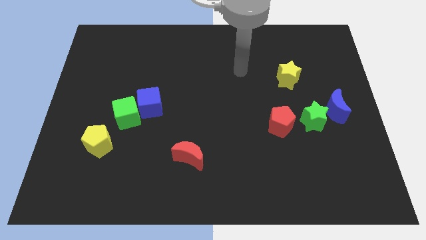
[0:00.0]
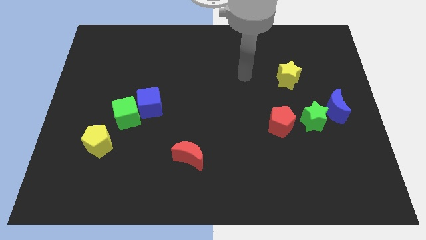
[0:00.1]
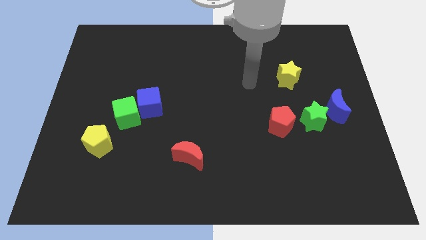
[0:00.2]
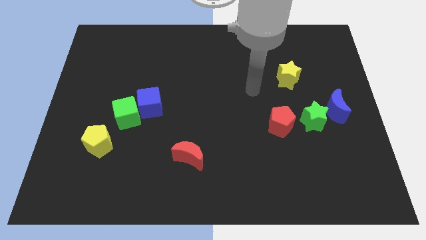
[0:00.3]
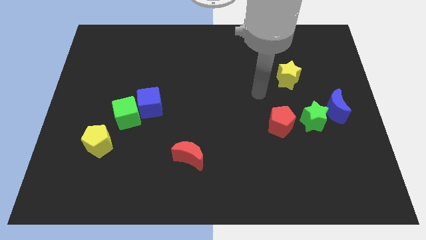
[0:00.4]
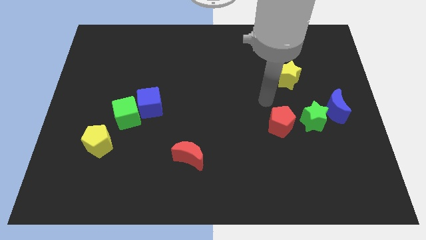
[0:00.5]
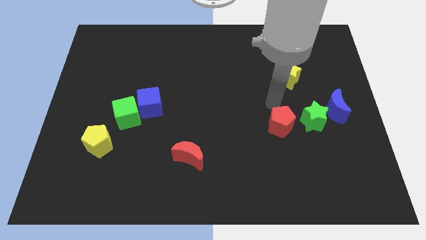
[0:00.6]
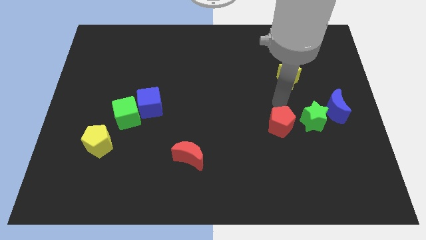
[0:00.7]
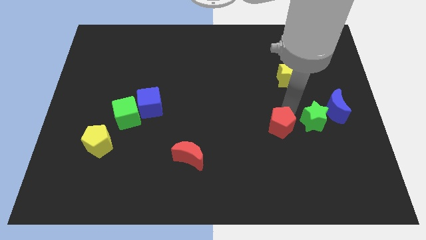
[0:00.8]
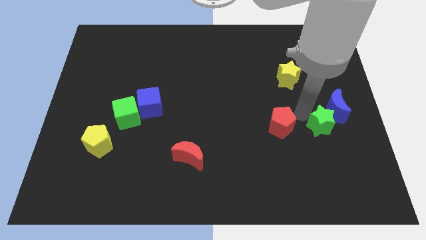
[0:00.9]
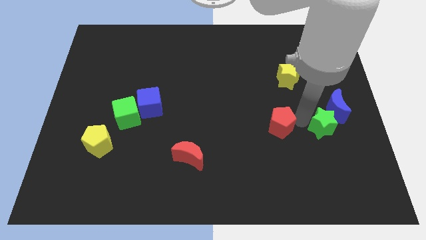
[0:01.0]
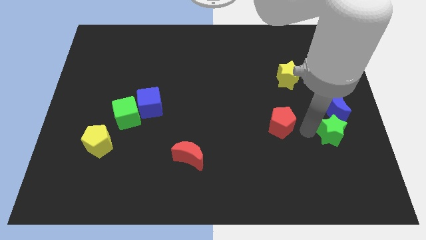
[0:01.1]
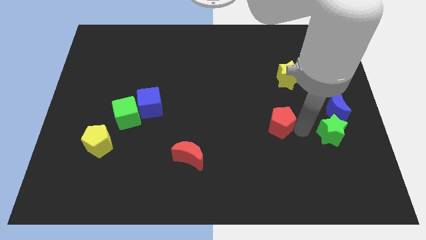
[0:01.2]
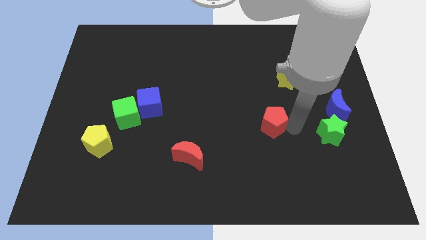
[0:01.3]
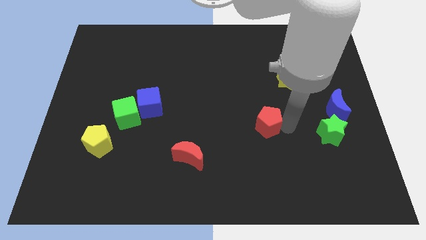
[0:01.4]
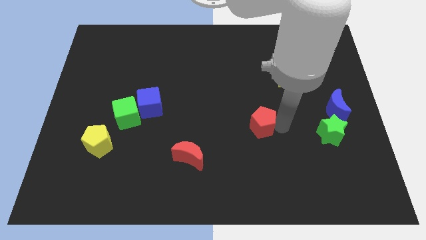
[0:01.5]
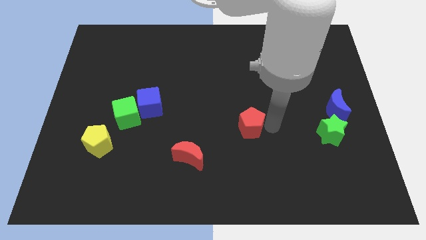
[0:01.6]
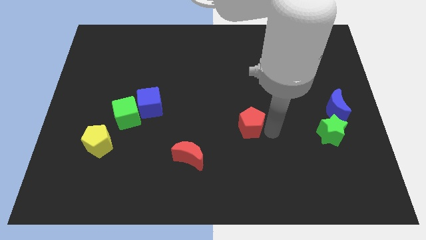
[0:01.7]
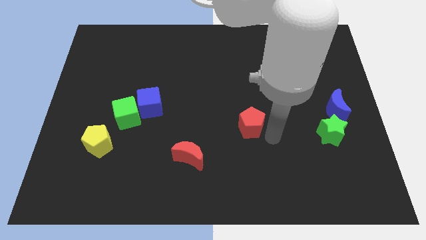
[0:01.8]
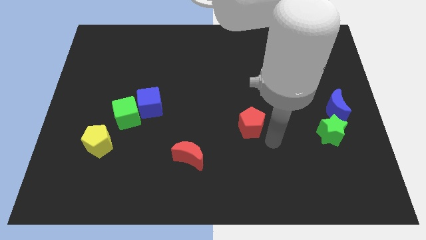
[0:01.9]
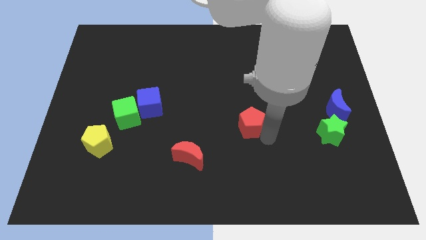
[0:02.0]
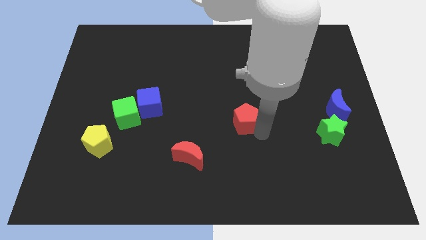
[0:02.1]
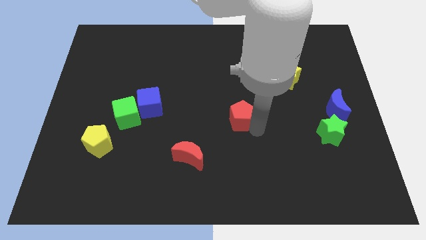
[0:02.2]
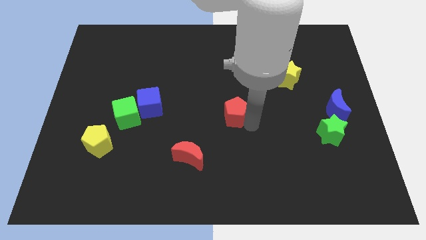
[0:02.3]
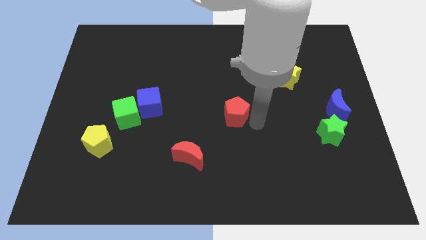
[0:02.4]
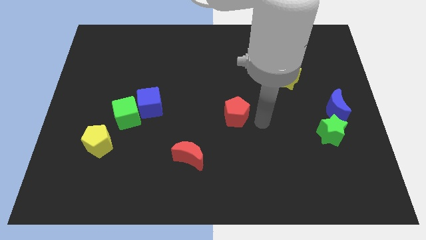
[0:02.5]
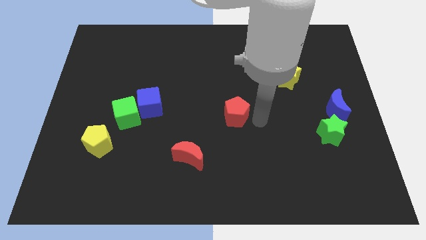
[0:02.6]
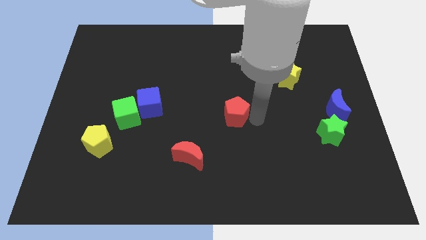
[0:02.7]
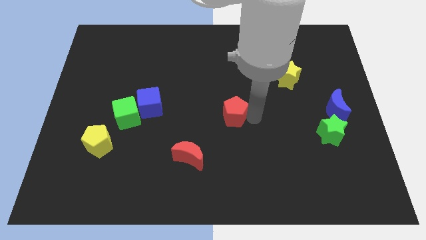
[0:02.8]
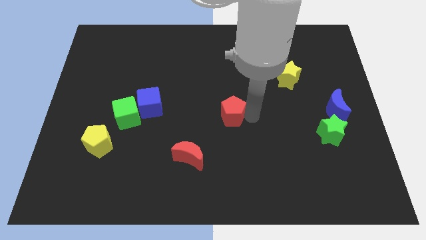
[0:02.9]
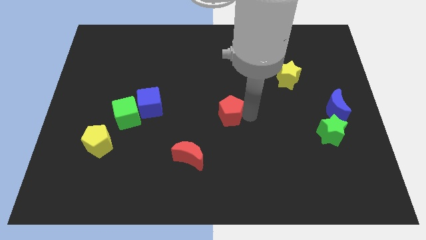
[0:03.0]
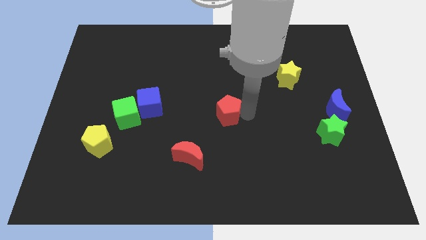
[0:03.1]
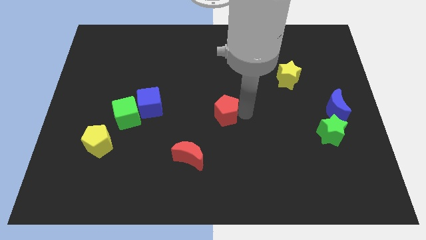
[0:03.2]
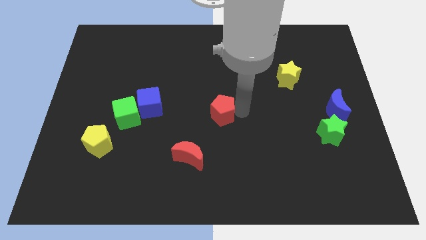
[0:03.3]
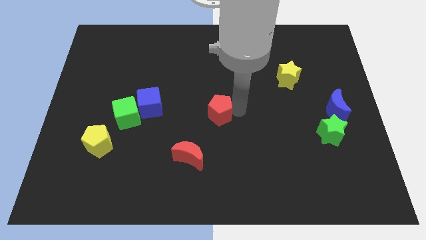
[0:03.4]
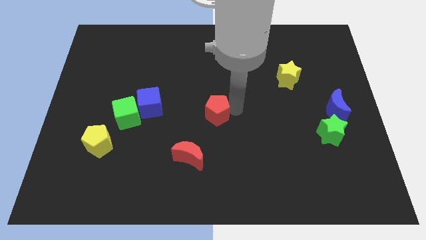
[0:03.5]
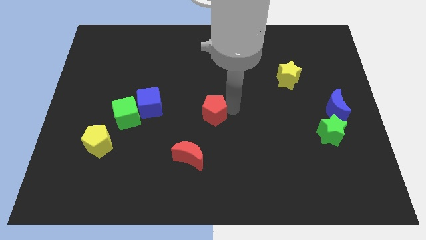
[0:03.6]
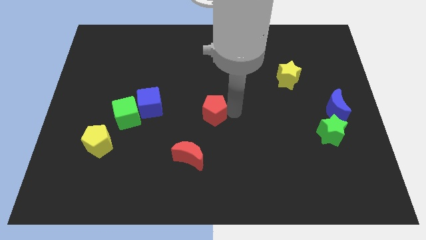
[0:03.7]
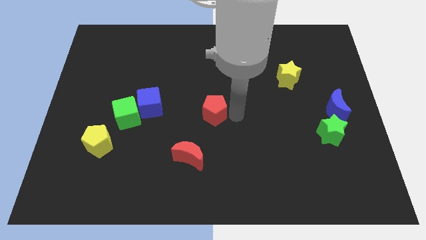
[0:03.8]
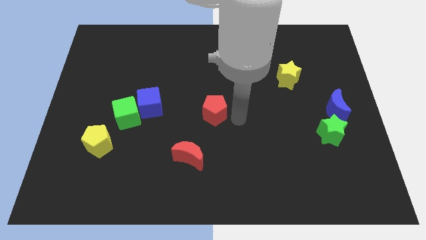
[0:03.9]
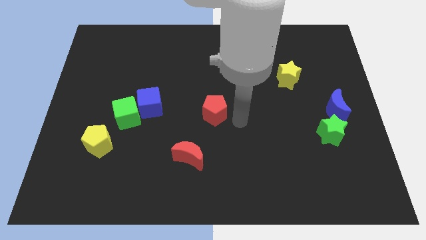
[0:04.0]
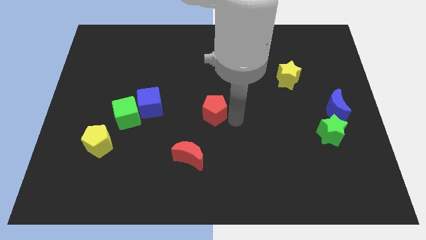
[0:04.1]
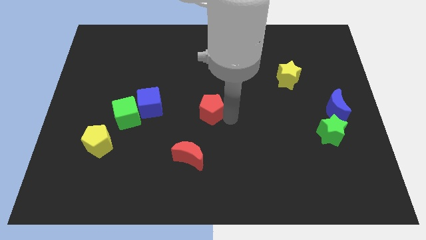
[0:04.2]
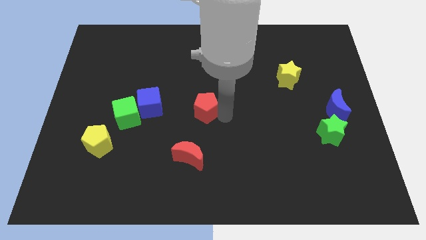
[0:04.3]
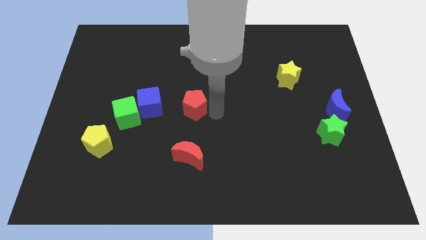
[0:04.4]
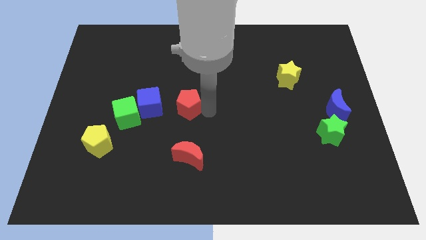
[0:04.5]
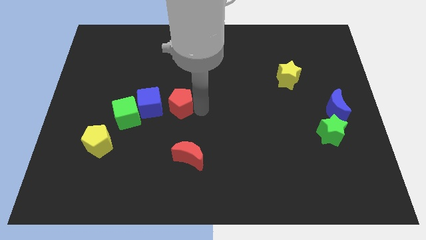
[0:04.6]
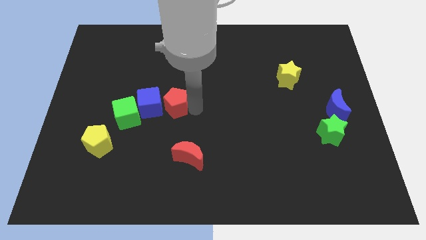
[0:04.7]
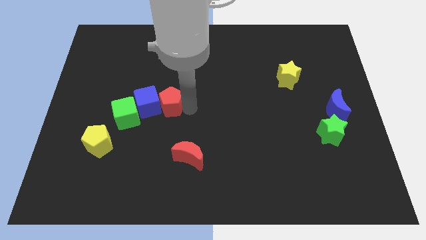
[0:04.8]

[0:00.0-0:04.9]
put the red pentagon to the top right side of the green cube

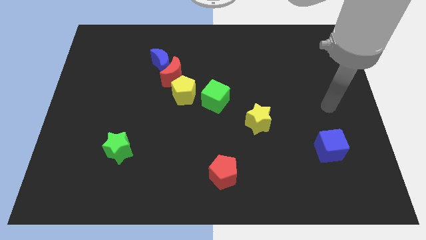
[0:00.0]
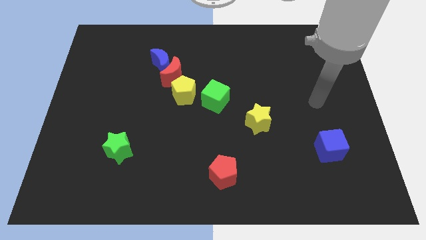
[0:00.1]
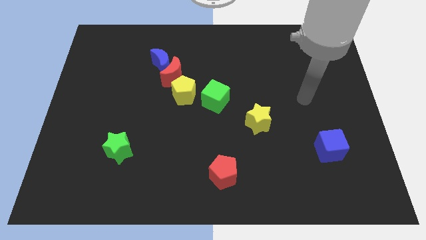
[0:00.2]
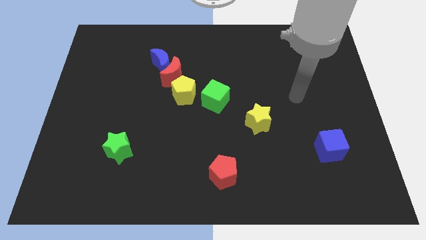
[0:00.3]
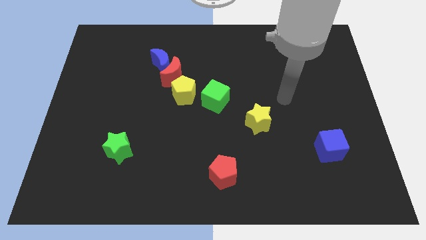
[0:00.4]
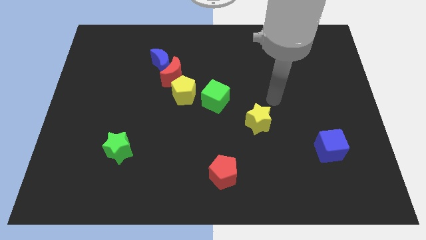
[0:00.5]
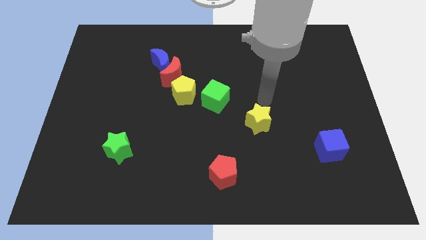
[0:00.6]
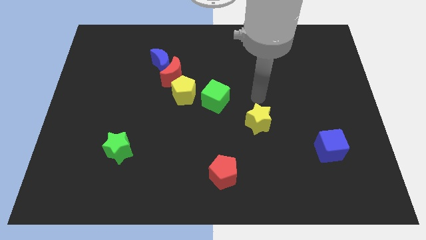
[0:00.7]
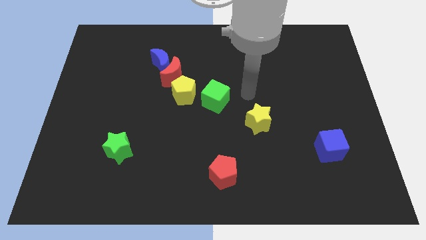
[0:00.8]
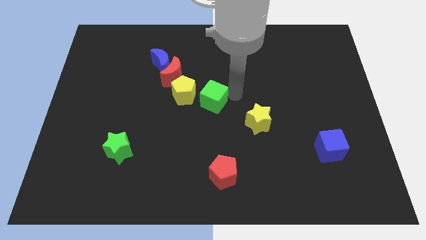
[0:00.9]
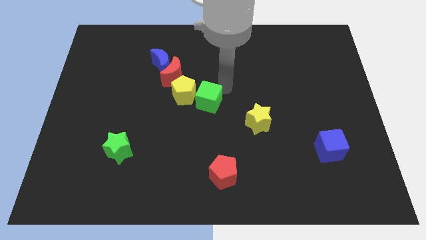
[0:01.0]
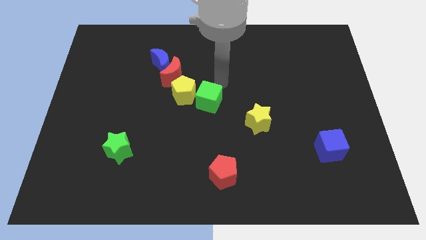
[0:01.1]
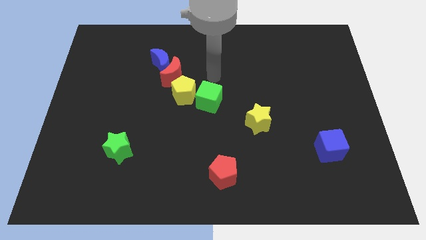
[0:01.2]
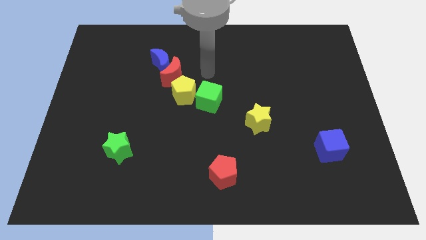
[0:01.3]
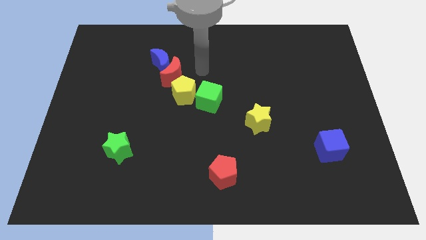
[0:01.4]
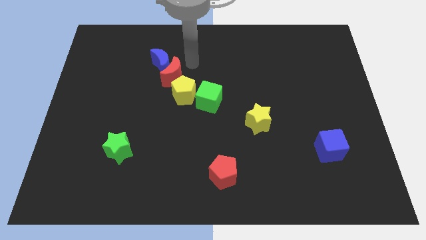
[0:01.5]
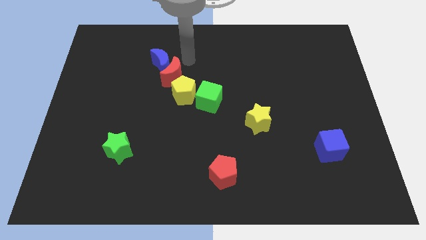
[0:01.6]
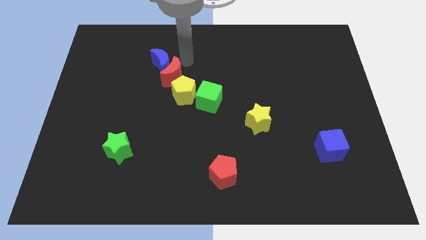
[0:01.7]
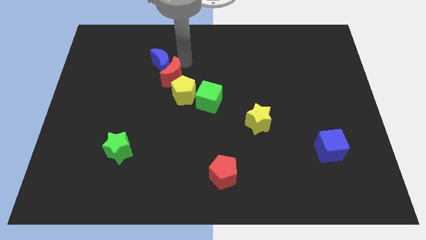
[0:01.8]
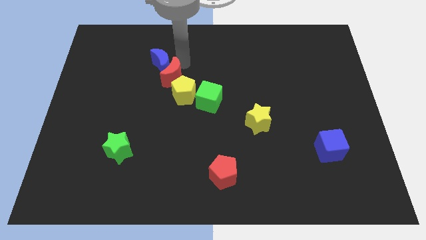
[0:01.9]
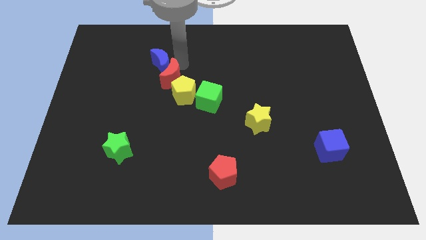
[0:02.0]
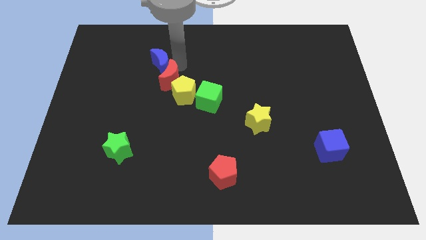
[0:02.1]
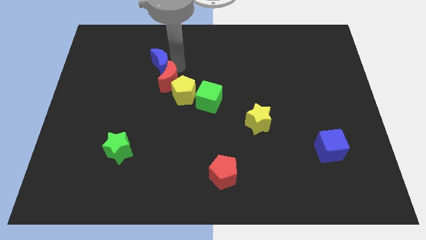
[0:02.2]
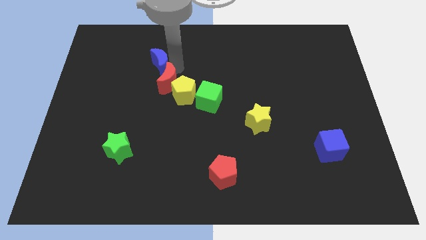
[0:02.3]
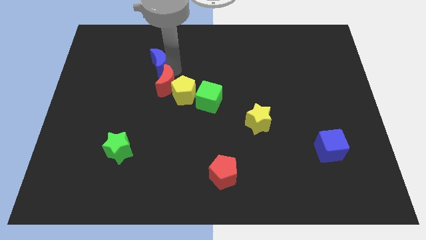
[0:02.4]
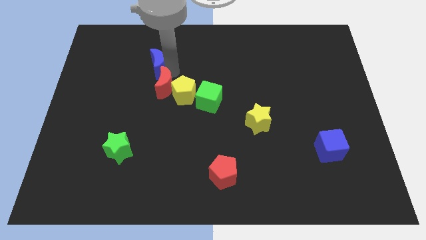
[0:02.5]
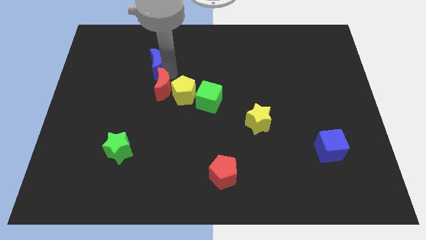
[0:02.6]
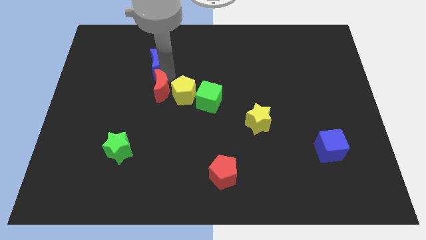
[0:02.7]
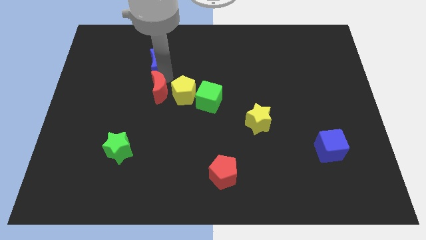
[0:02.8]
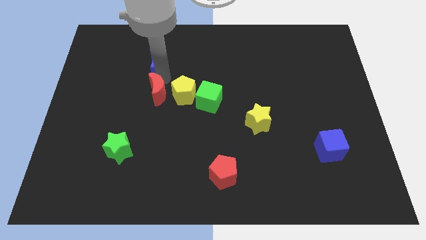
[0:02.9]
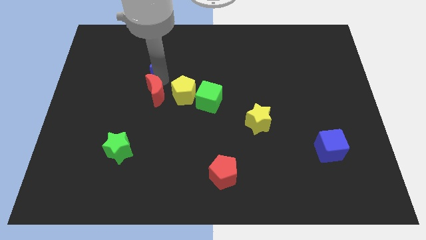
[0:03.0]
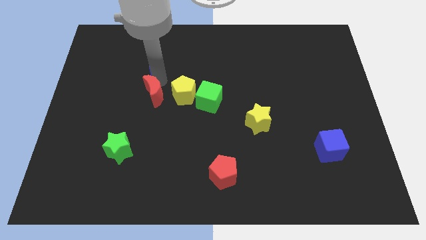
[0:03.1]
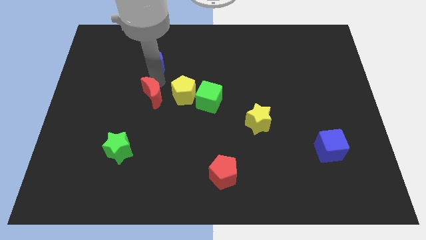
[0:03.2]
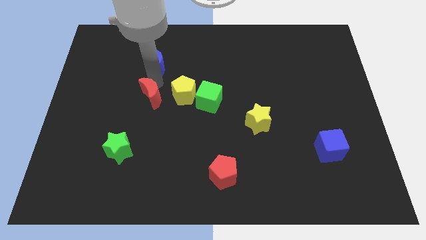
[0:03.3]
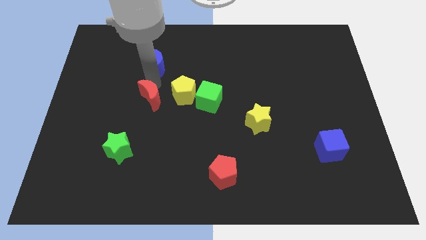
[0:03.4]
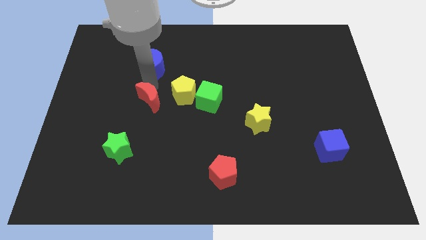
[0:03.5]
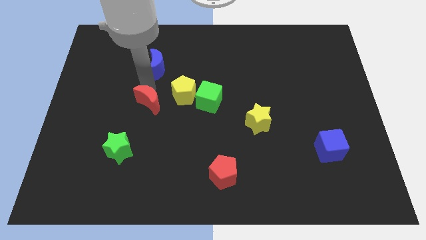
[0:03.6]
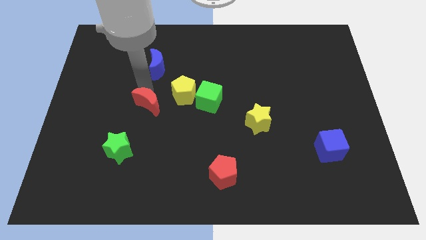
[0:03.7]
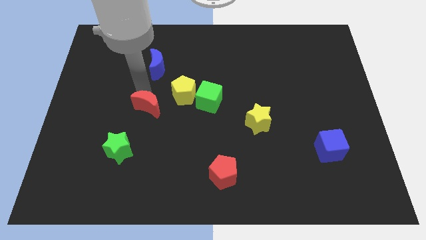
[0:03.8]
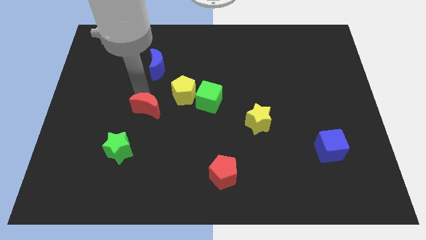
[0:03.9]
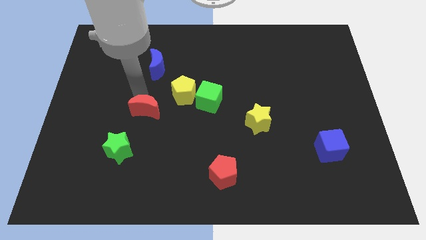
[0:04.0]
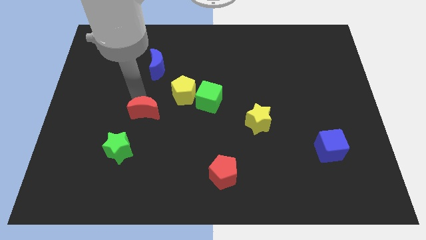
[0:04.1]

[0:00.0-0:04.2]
push the red moon to the top right side of the green star
